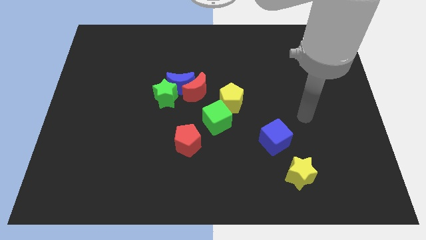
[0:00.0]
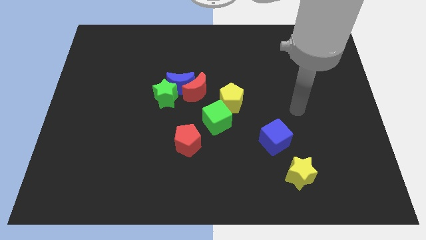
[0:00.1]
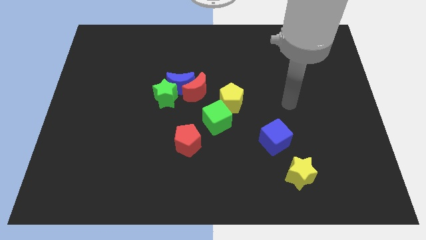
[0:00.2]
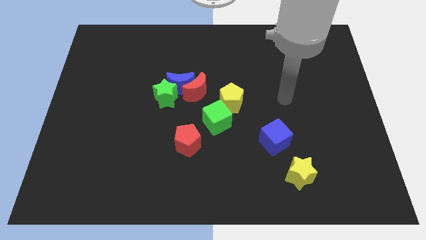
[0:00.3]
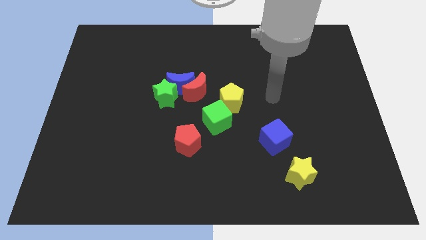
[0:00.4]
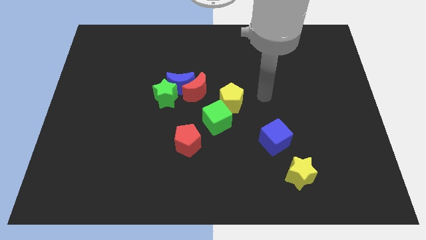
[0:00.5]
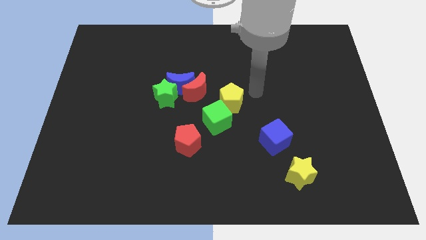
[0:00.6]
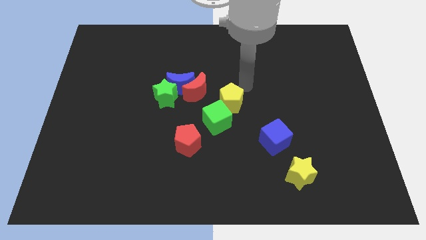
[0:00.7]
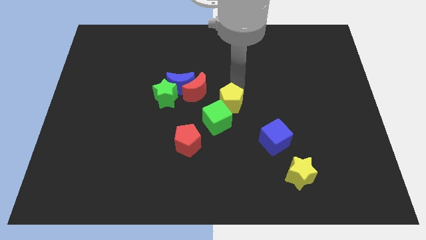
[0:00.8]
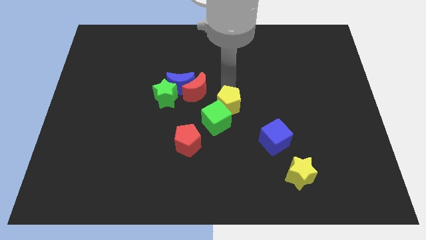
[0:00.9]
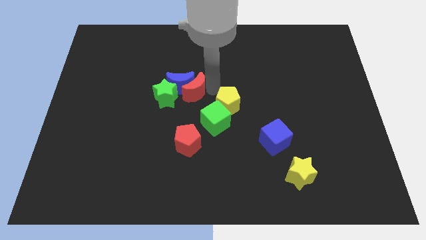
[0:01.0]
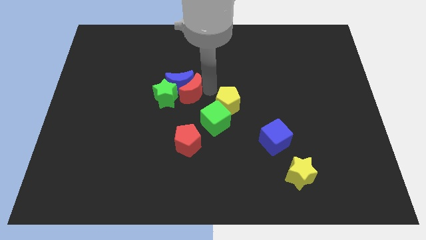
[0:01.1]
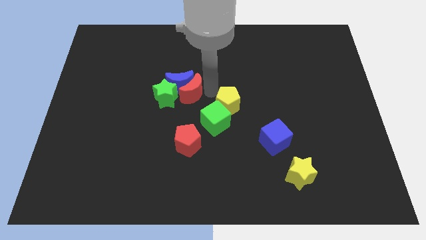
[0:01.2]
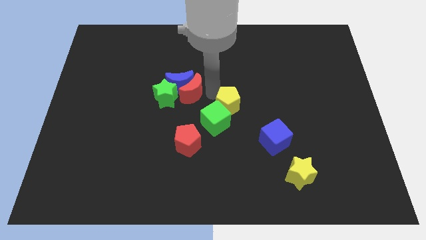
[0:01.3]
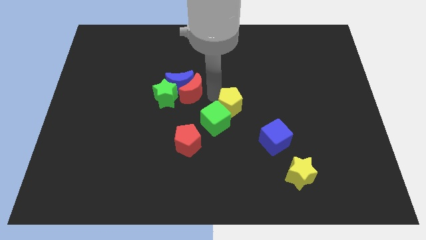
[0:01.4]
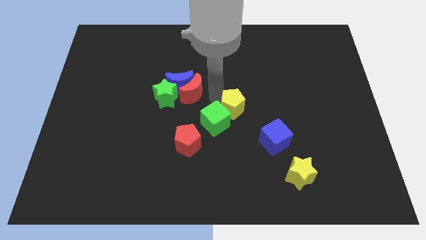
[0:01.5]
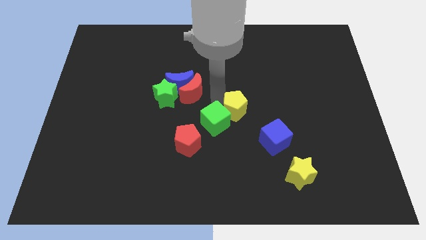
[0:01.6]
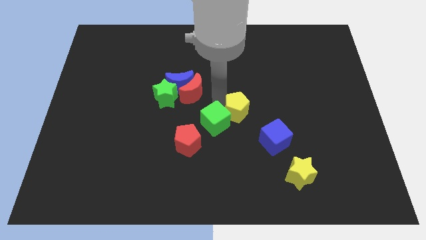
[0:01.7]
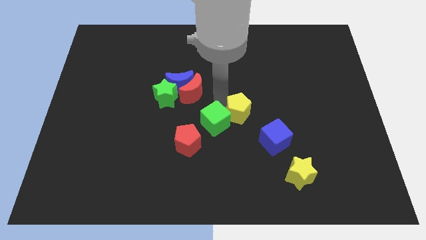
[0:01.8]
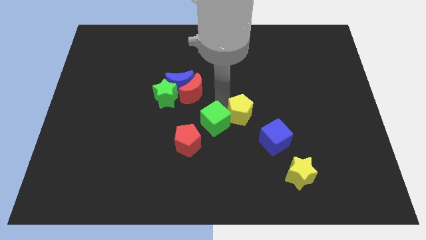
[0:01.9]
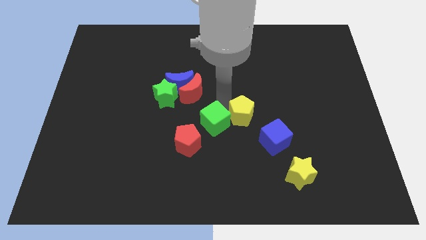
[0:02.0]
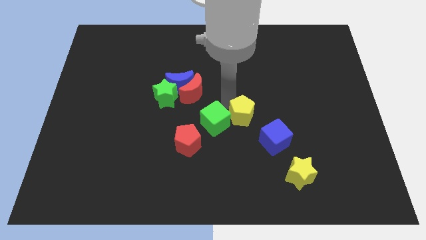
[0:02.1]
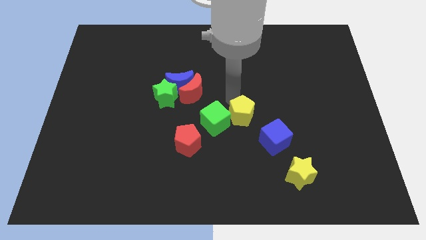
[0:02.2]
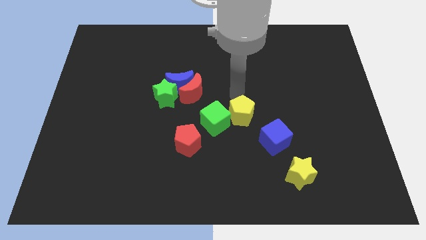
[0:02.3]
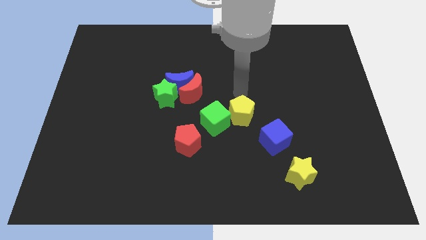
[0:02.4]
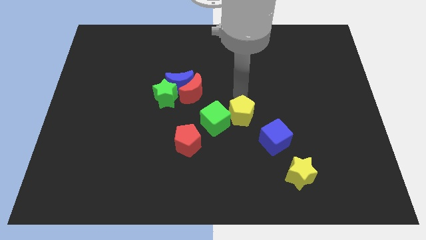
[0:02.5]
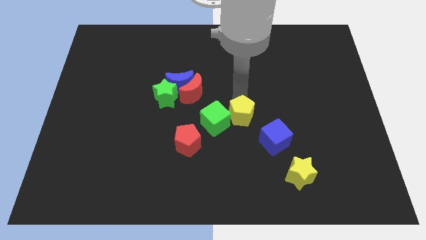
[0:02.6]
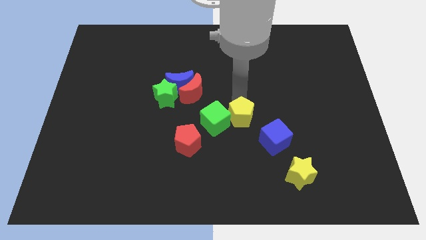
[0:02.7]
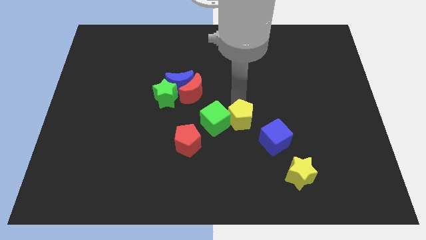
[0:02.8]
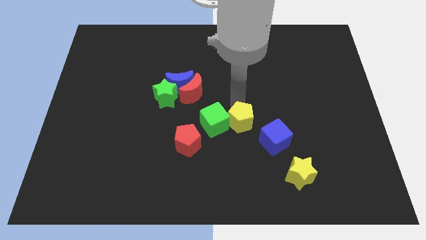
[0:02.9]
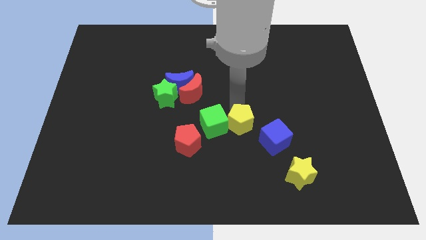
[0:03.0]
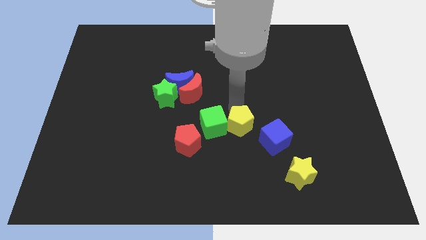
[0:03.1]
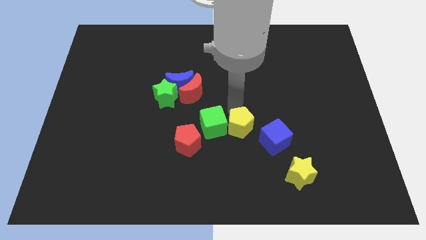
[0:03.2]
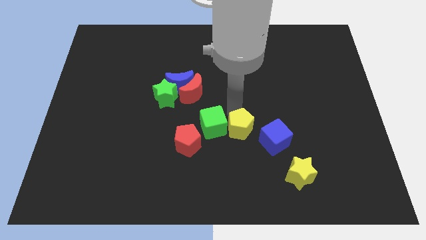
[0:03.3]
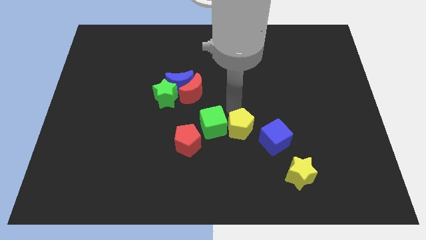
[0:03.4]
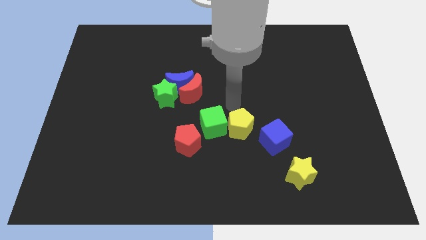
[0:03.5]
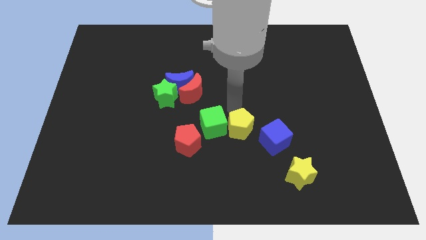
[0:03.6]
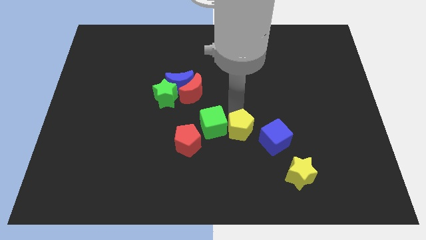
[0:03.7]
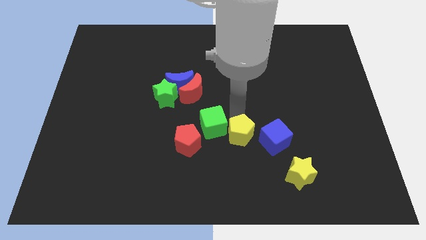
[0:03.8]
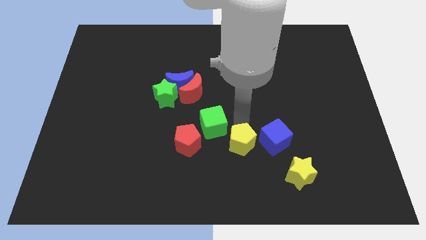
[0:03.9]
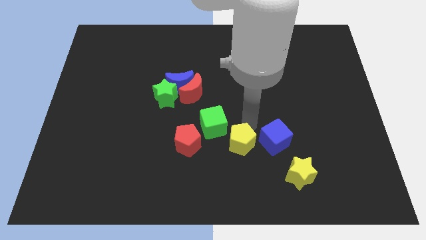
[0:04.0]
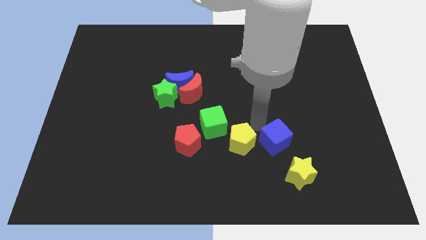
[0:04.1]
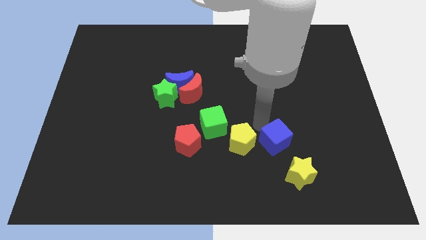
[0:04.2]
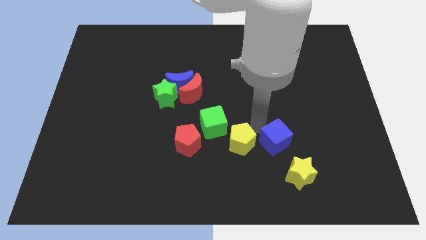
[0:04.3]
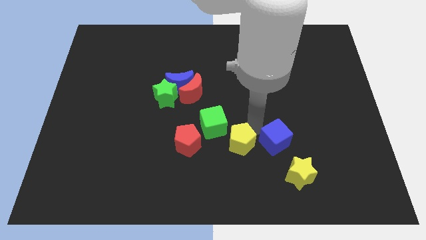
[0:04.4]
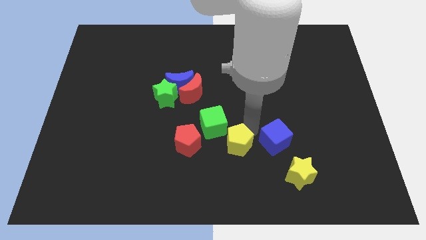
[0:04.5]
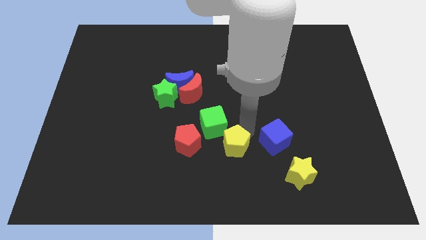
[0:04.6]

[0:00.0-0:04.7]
push the yellow pentagon to the bottom of the green cube

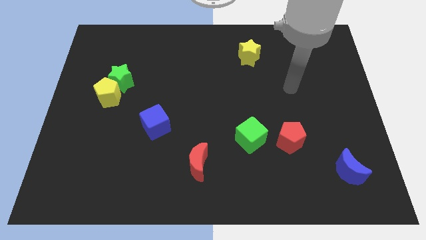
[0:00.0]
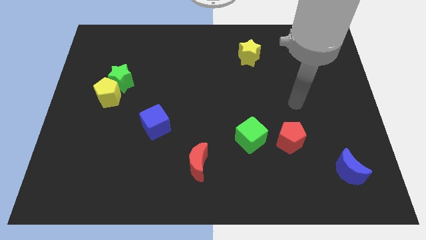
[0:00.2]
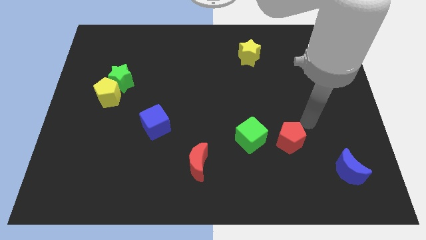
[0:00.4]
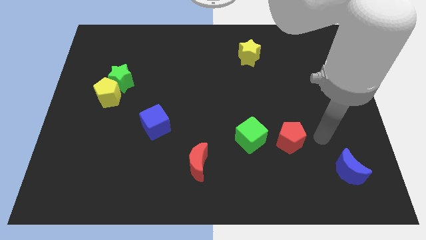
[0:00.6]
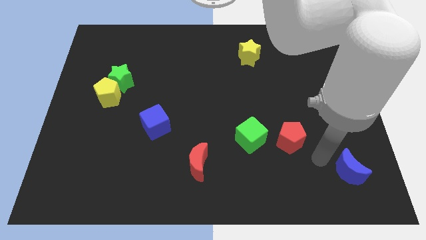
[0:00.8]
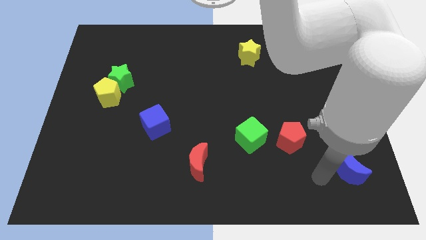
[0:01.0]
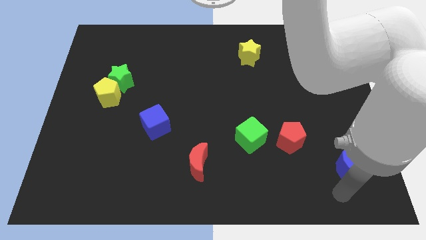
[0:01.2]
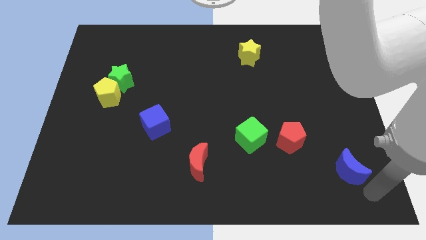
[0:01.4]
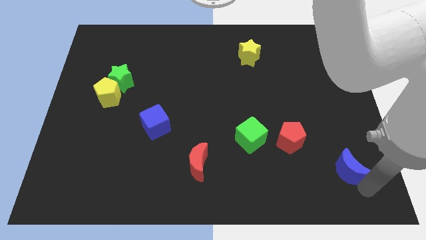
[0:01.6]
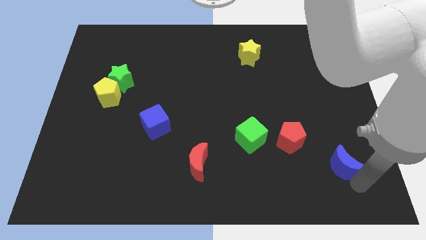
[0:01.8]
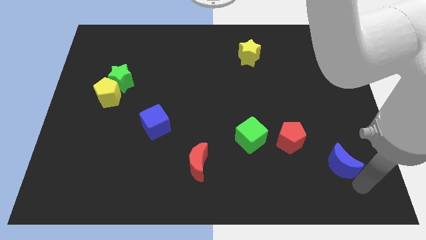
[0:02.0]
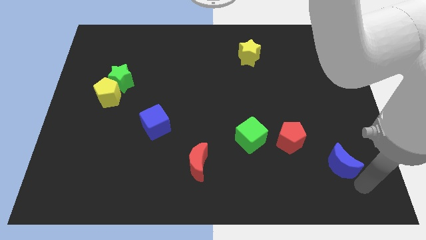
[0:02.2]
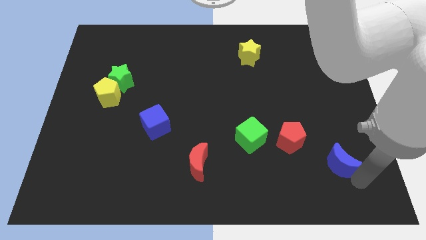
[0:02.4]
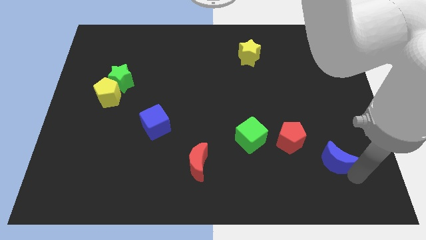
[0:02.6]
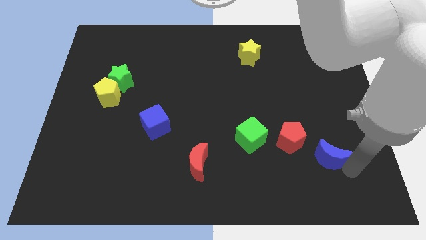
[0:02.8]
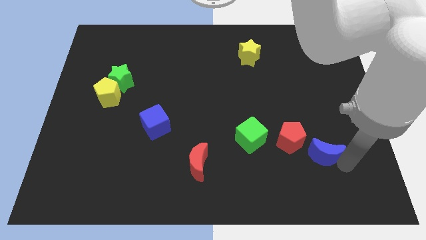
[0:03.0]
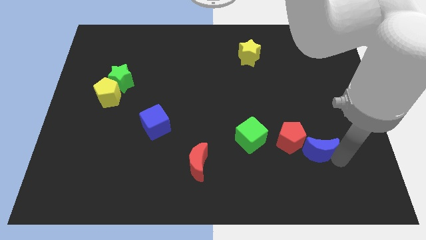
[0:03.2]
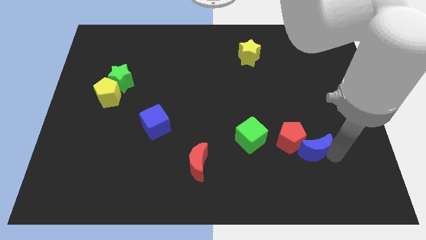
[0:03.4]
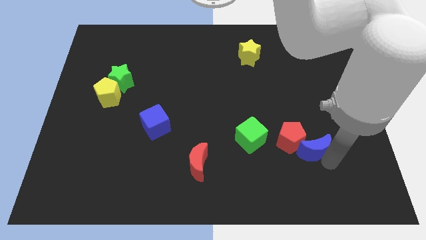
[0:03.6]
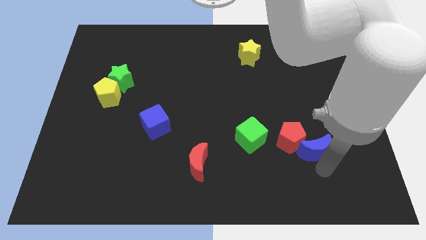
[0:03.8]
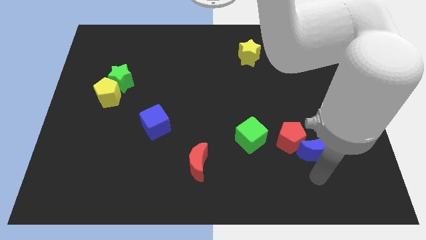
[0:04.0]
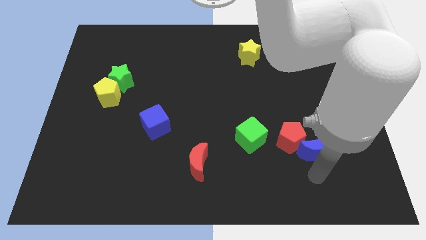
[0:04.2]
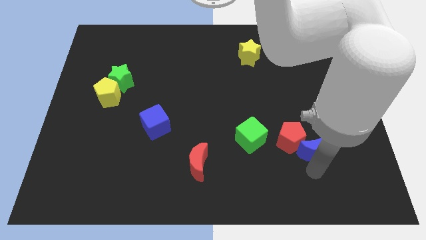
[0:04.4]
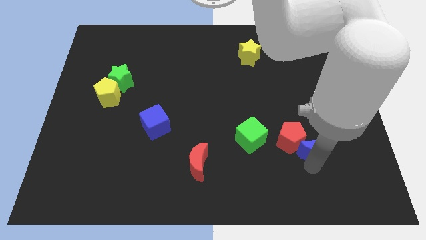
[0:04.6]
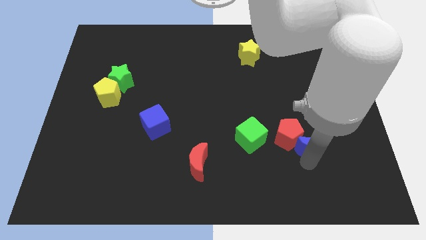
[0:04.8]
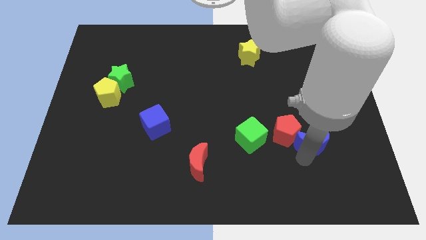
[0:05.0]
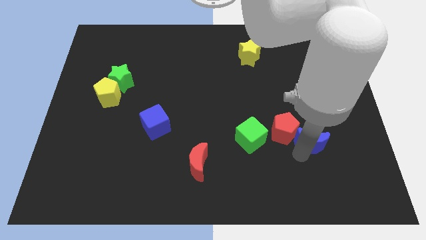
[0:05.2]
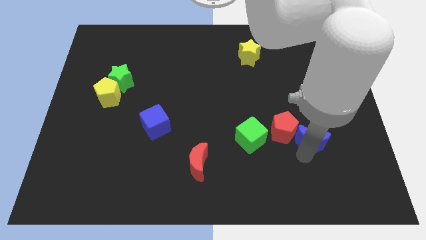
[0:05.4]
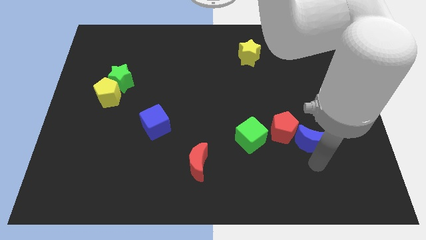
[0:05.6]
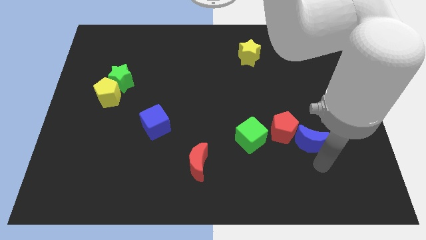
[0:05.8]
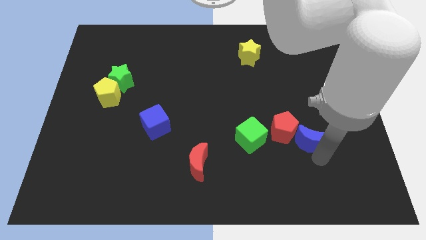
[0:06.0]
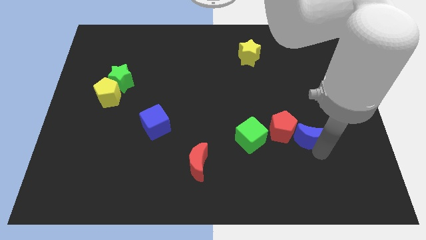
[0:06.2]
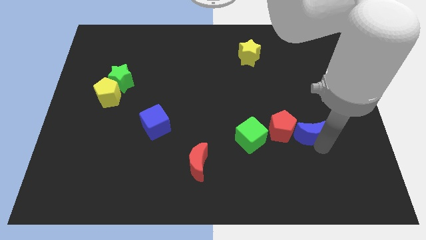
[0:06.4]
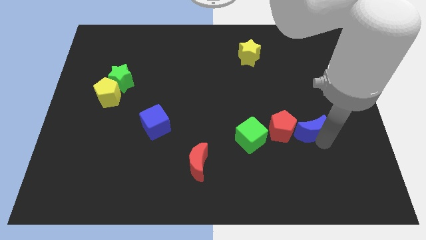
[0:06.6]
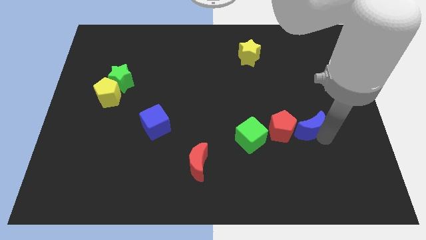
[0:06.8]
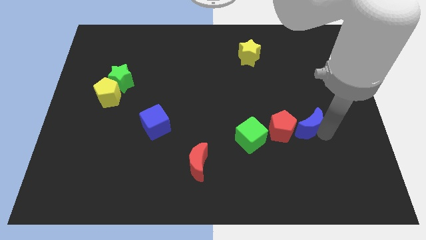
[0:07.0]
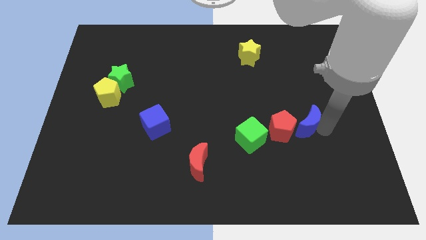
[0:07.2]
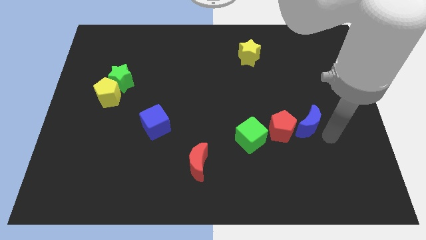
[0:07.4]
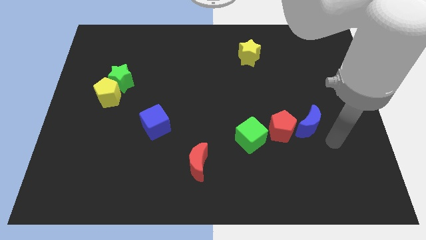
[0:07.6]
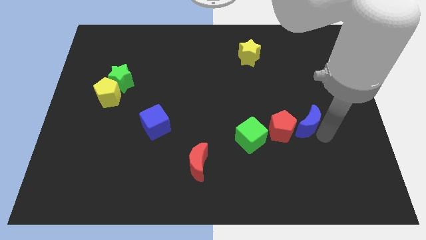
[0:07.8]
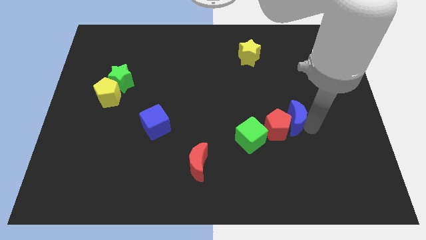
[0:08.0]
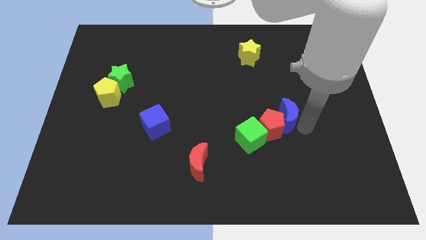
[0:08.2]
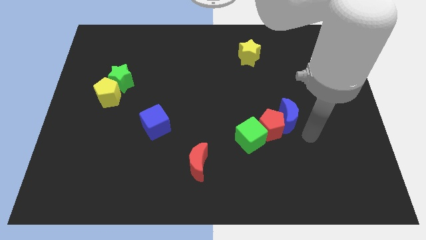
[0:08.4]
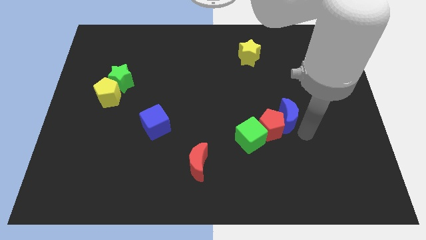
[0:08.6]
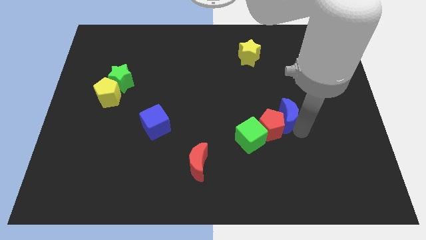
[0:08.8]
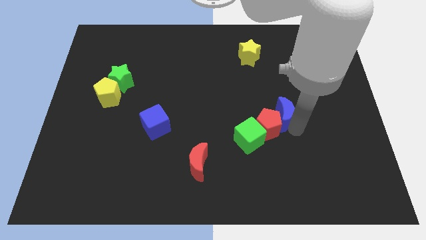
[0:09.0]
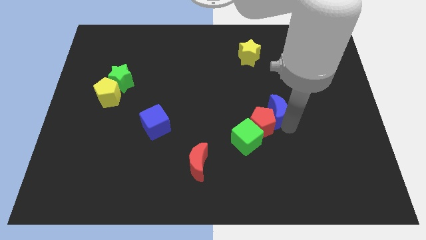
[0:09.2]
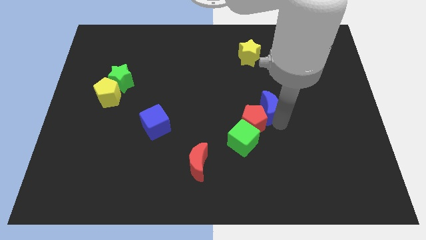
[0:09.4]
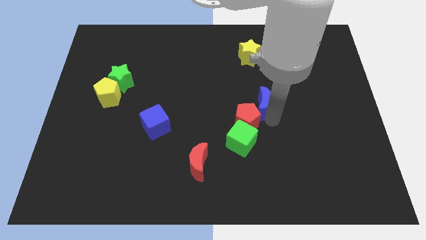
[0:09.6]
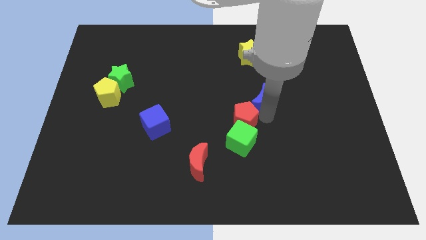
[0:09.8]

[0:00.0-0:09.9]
put the blue moon to the bottom of the yellow star
